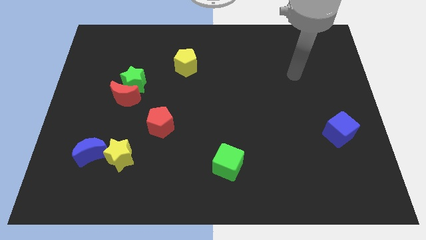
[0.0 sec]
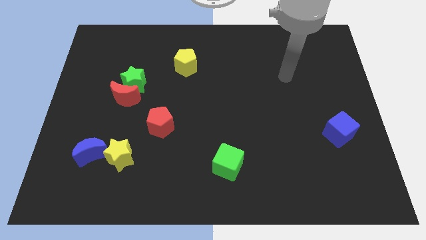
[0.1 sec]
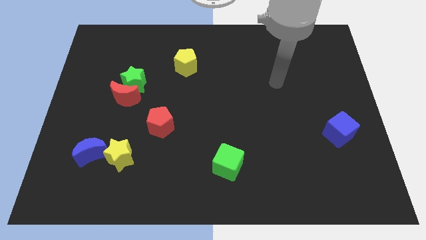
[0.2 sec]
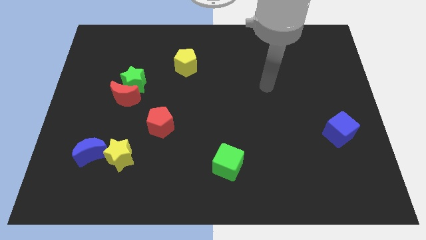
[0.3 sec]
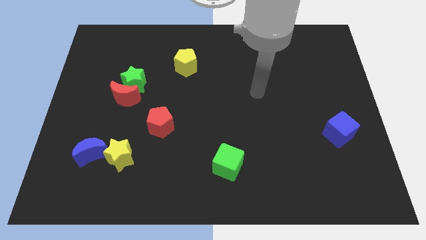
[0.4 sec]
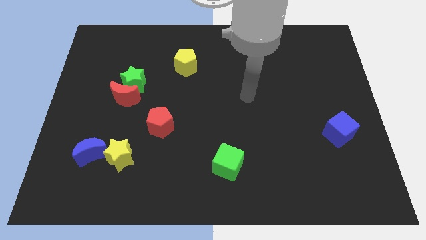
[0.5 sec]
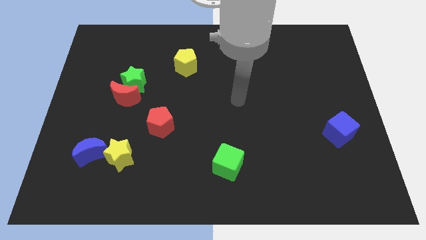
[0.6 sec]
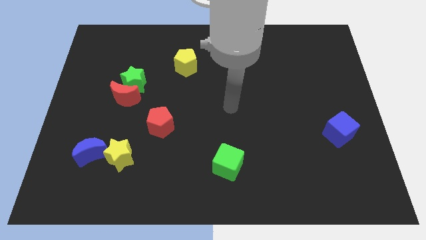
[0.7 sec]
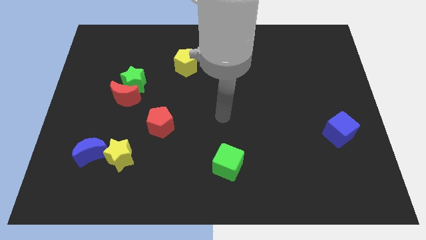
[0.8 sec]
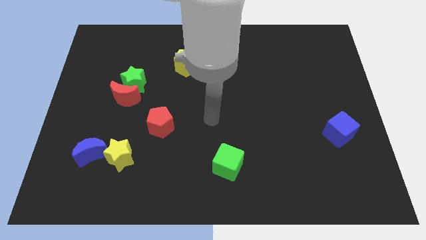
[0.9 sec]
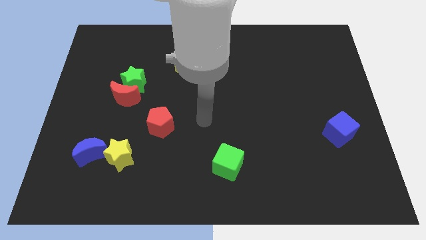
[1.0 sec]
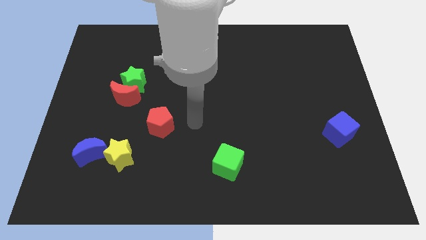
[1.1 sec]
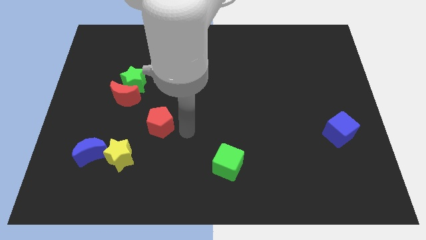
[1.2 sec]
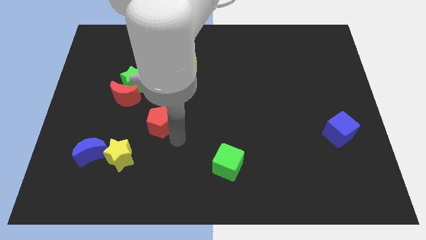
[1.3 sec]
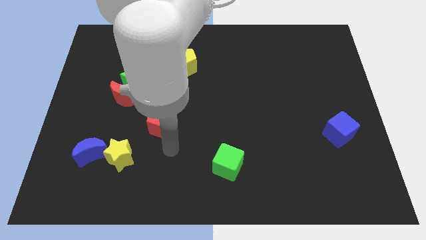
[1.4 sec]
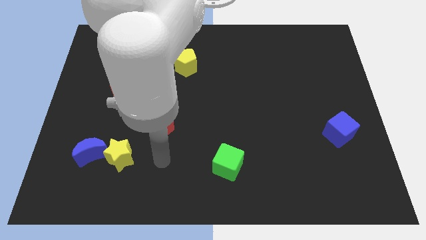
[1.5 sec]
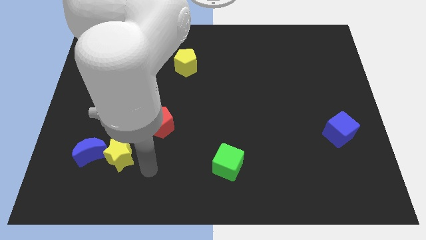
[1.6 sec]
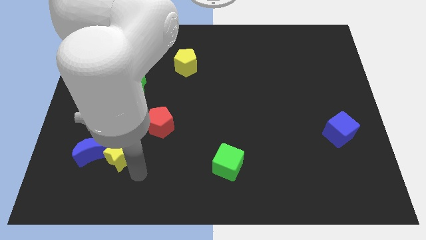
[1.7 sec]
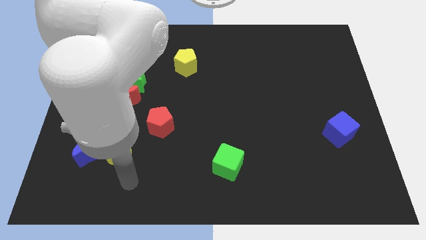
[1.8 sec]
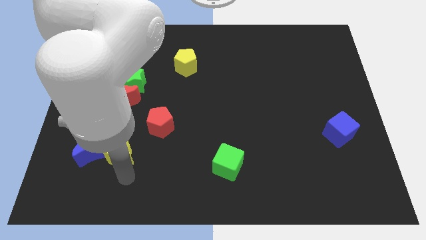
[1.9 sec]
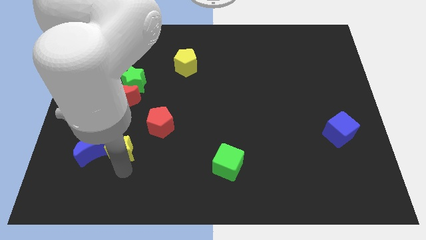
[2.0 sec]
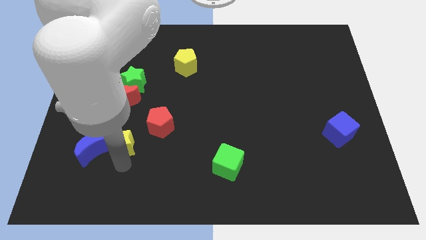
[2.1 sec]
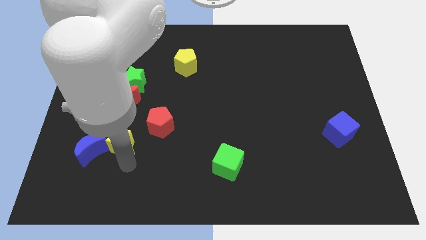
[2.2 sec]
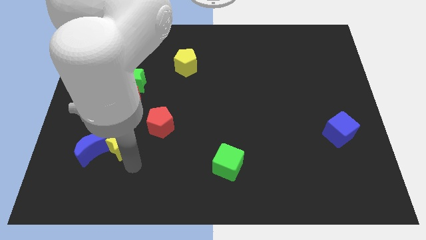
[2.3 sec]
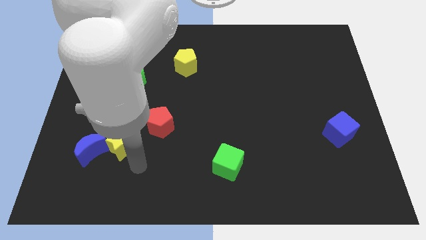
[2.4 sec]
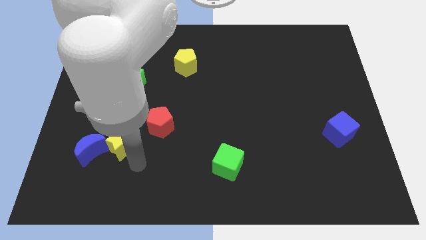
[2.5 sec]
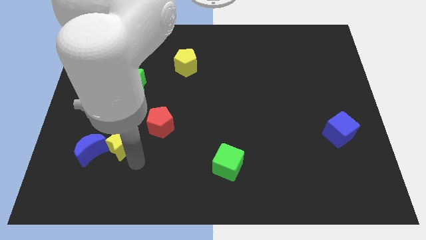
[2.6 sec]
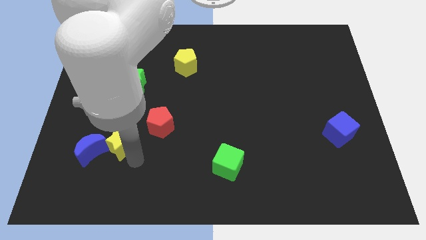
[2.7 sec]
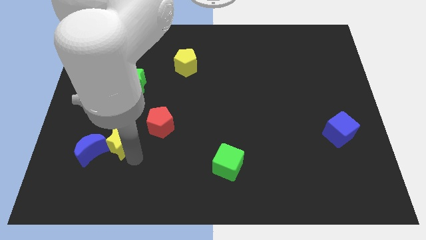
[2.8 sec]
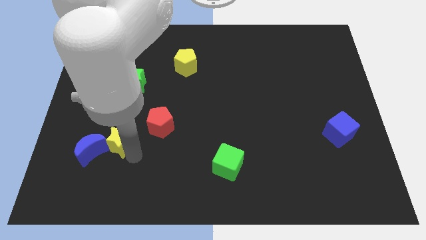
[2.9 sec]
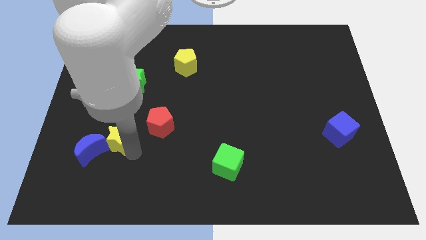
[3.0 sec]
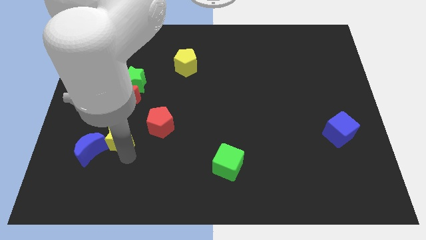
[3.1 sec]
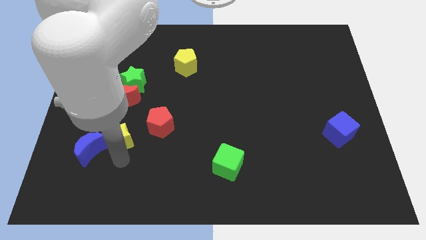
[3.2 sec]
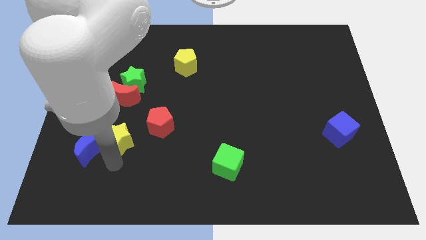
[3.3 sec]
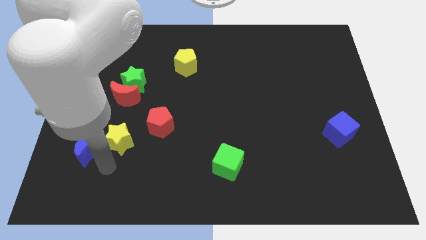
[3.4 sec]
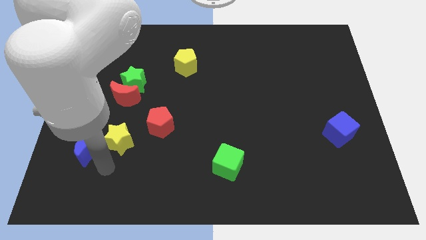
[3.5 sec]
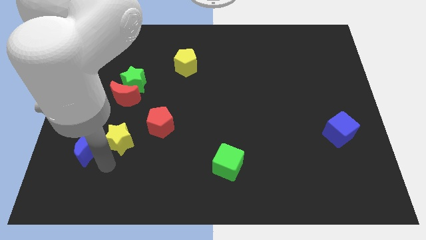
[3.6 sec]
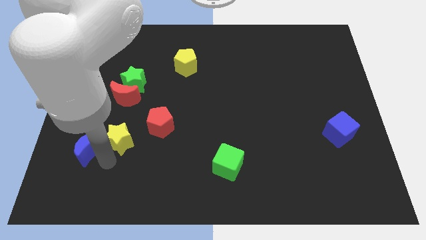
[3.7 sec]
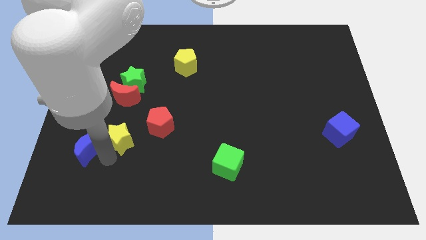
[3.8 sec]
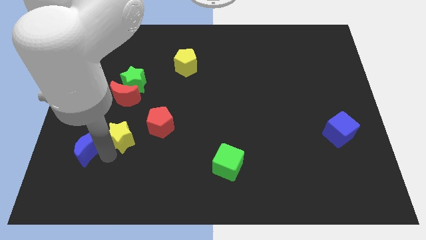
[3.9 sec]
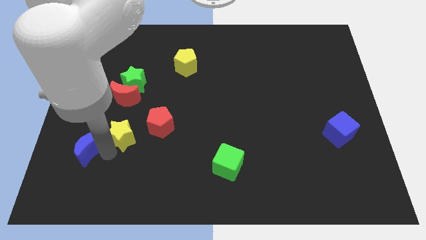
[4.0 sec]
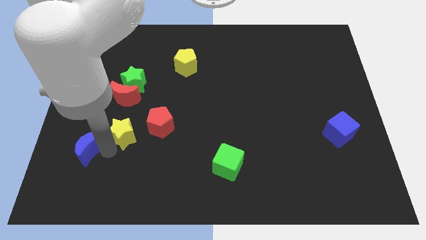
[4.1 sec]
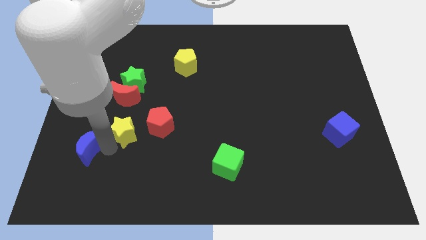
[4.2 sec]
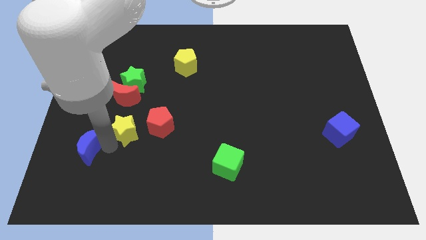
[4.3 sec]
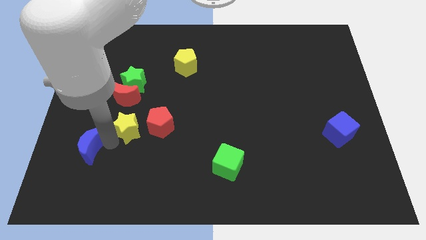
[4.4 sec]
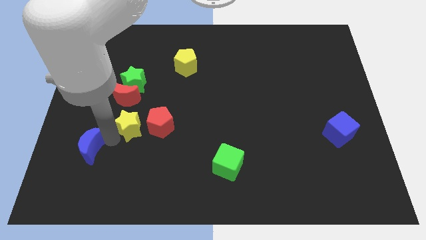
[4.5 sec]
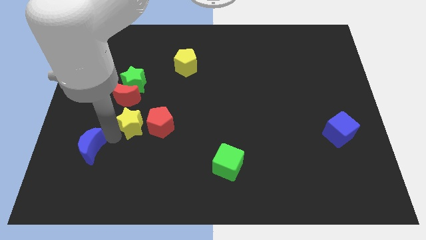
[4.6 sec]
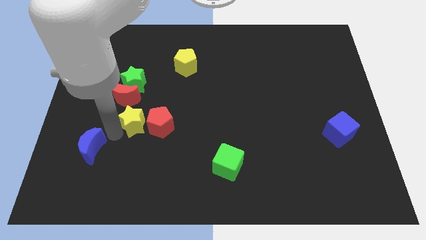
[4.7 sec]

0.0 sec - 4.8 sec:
move the yellow star to the top left side of the red pentagon

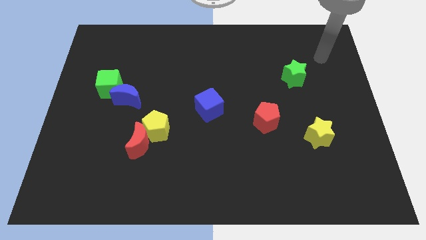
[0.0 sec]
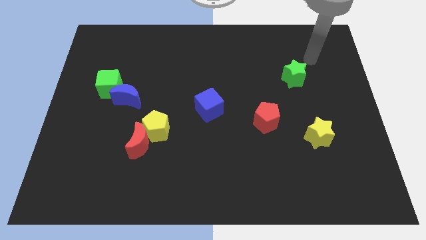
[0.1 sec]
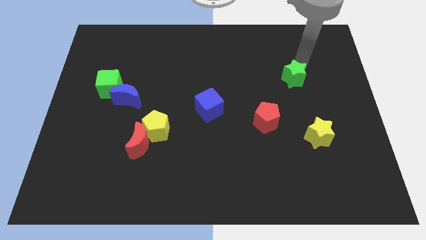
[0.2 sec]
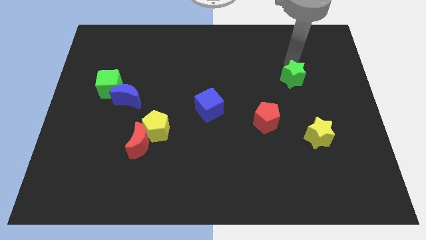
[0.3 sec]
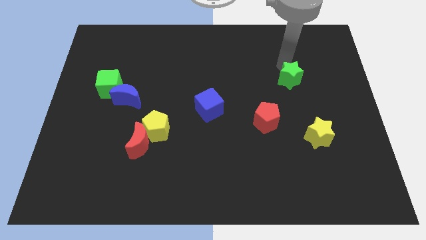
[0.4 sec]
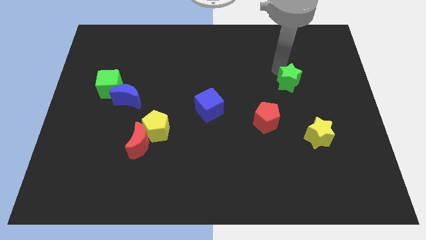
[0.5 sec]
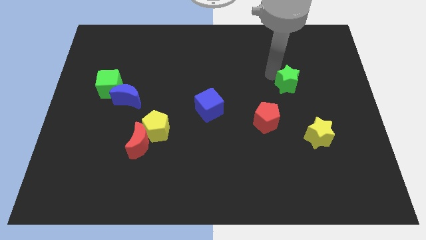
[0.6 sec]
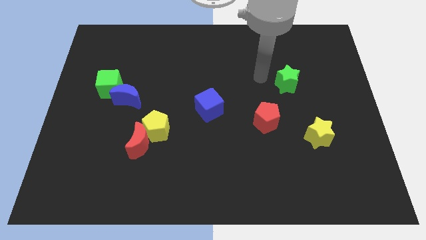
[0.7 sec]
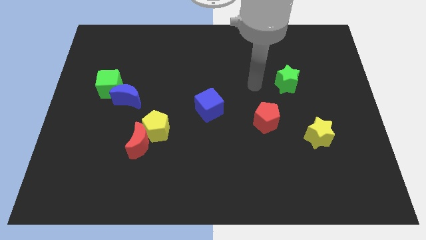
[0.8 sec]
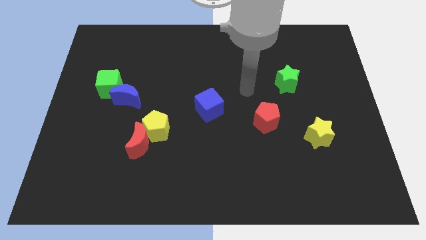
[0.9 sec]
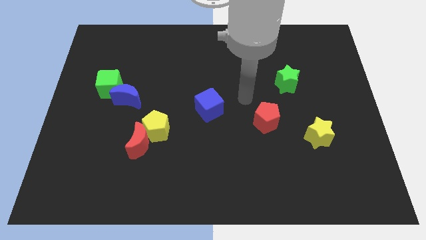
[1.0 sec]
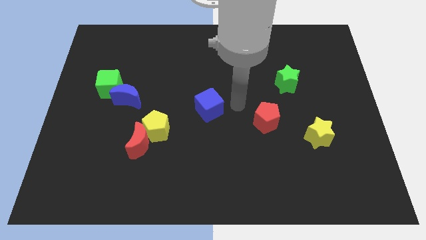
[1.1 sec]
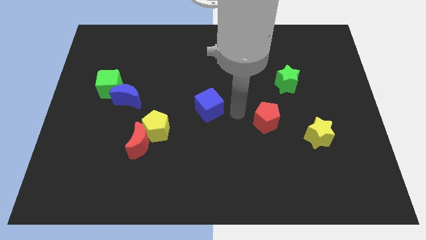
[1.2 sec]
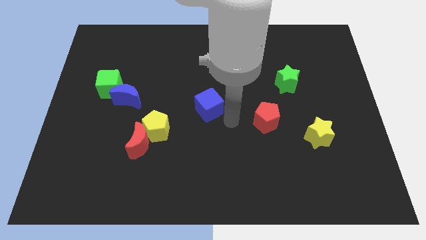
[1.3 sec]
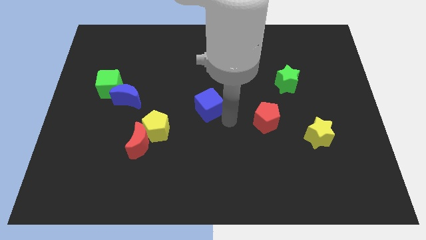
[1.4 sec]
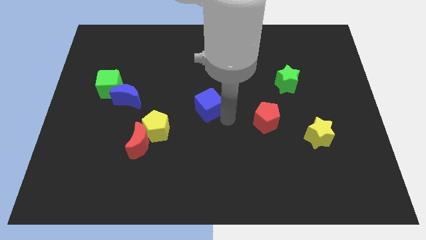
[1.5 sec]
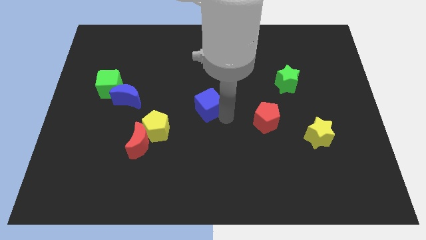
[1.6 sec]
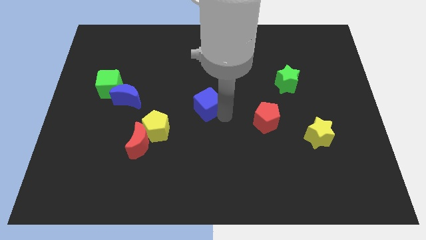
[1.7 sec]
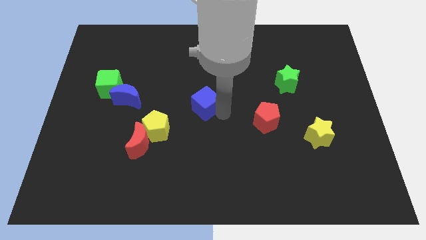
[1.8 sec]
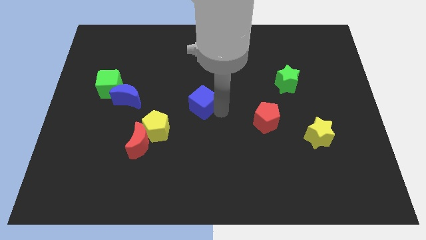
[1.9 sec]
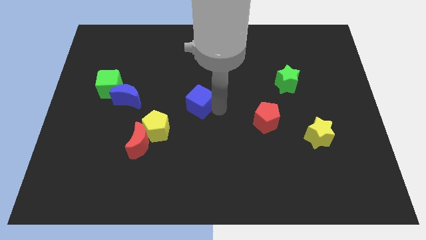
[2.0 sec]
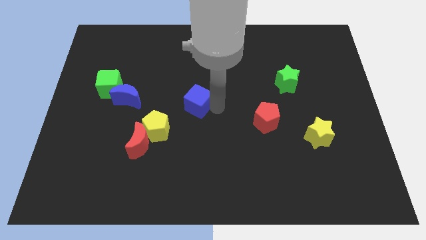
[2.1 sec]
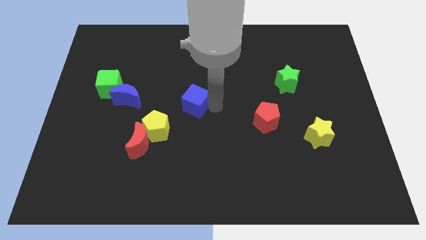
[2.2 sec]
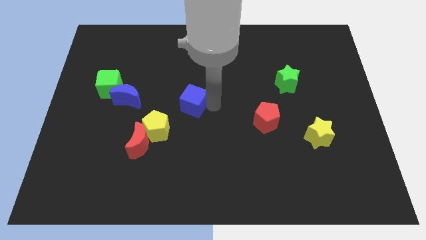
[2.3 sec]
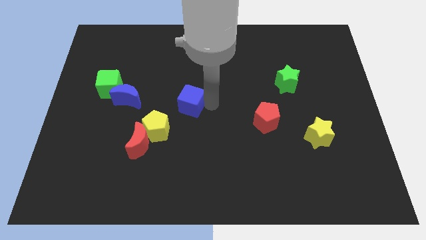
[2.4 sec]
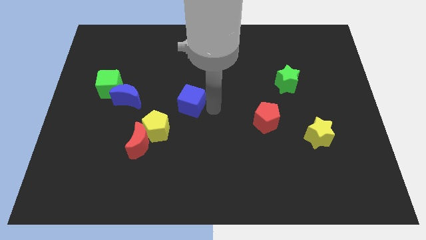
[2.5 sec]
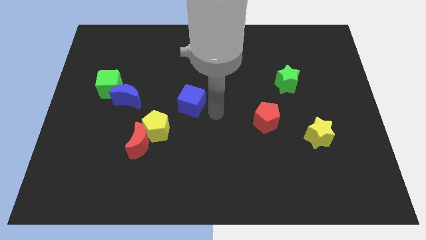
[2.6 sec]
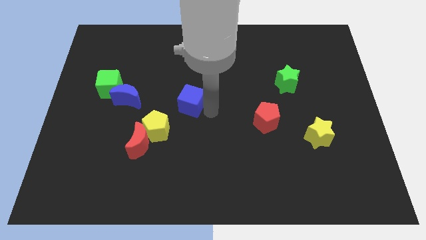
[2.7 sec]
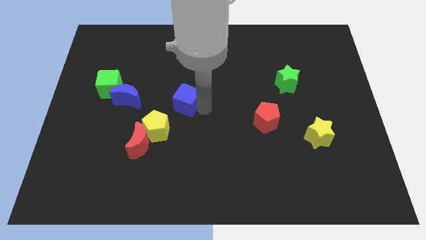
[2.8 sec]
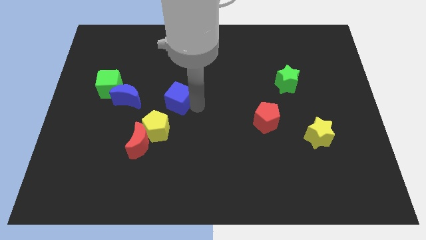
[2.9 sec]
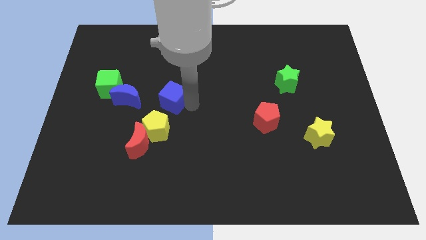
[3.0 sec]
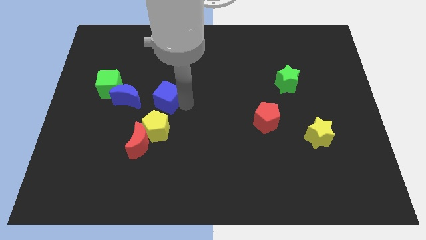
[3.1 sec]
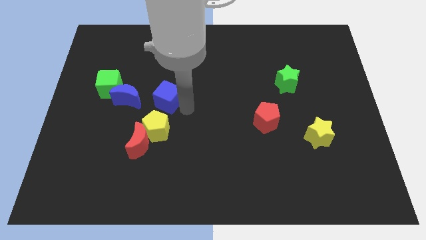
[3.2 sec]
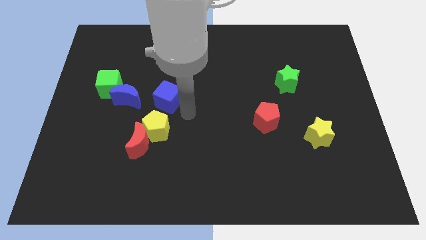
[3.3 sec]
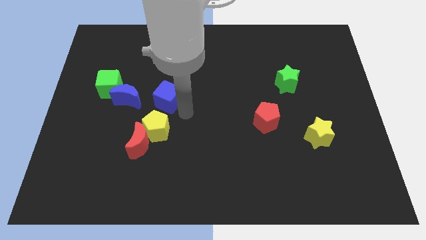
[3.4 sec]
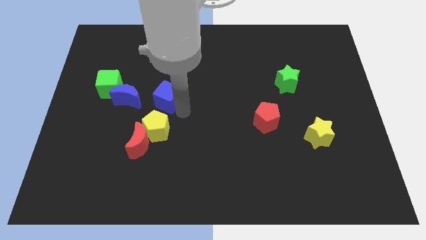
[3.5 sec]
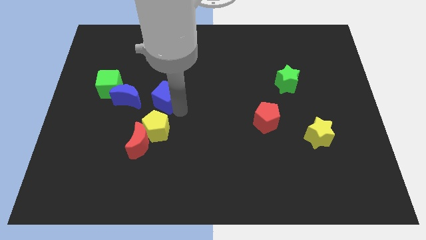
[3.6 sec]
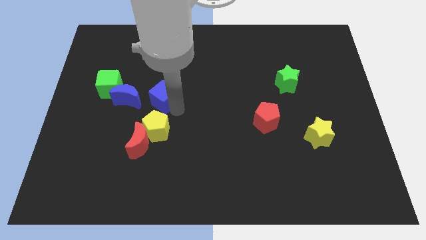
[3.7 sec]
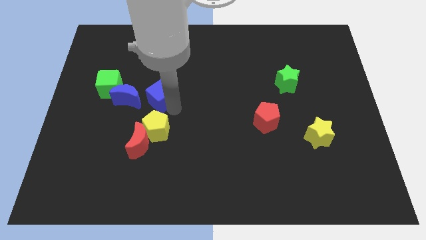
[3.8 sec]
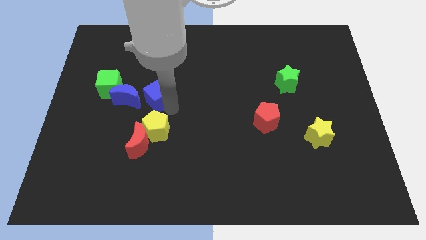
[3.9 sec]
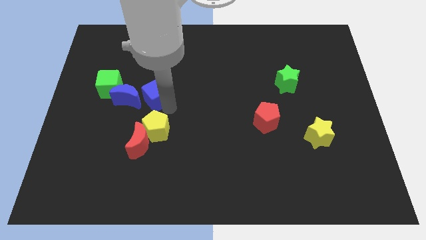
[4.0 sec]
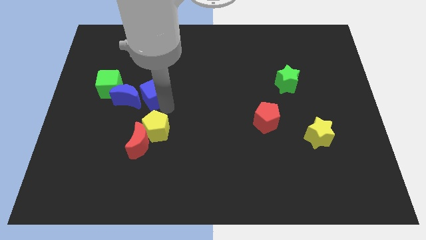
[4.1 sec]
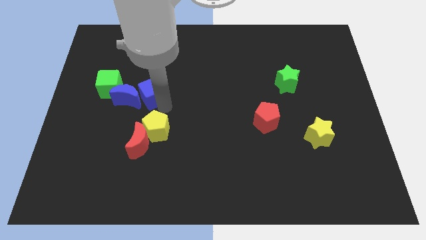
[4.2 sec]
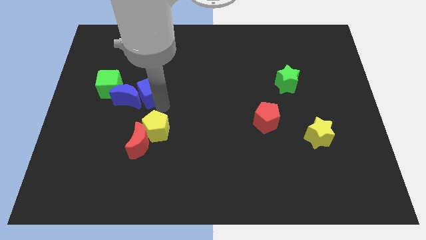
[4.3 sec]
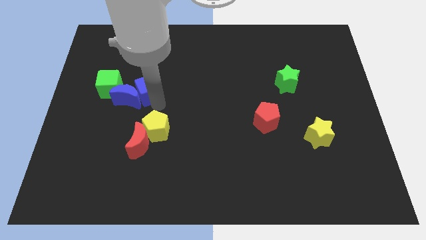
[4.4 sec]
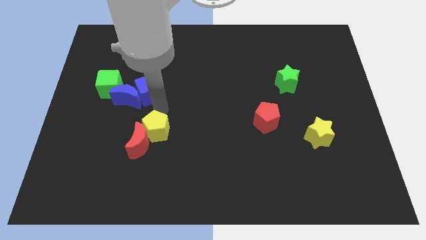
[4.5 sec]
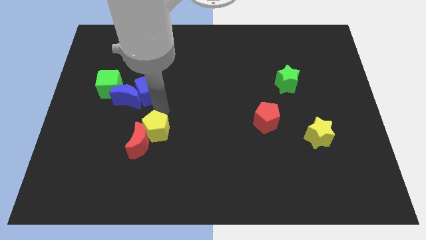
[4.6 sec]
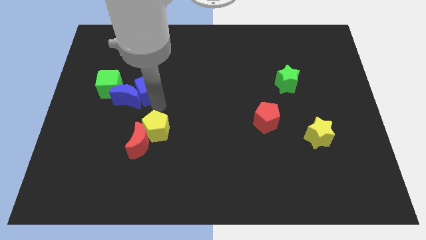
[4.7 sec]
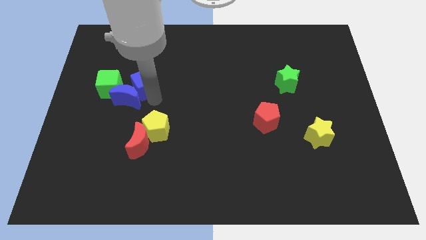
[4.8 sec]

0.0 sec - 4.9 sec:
slide the blue cube to the top side of the blue moon
